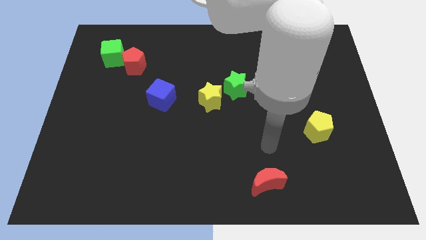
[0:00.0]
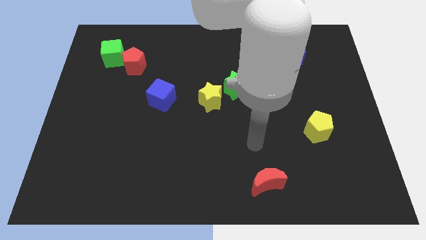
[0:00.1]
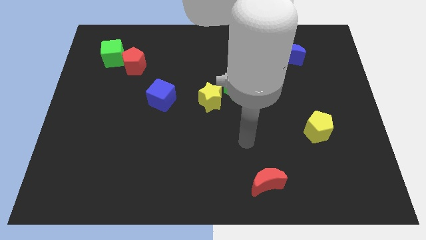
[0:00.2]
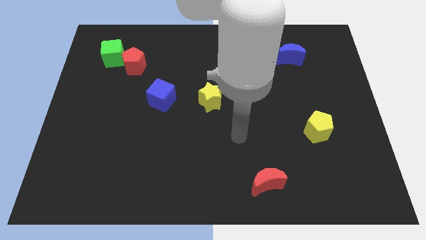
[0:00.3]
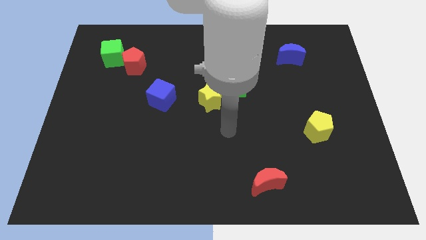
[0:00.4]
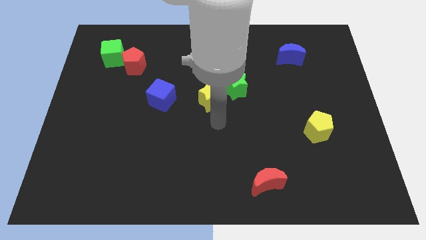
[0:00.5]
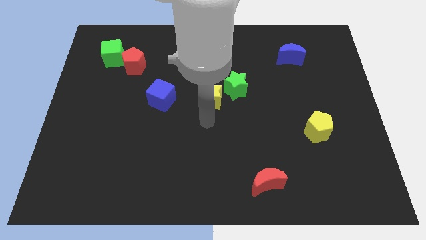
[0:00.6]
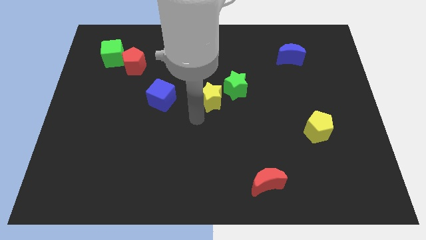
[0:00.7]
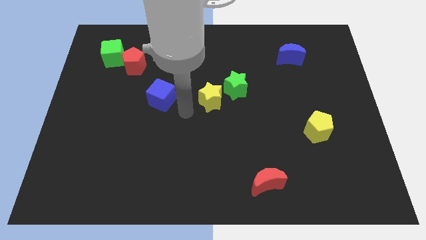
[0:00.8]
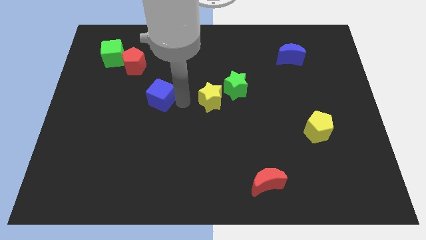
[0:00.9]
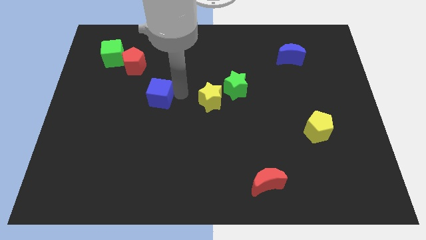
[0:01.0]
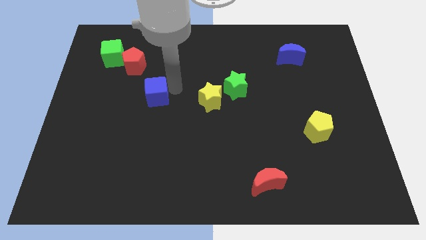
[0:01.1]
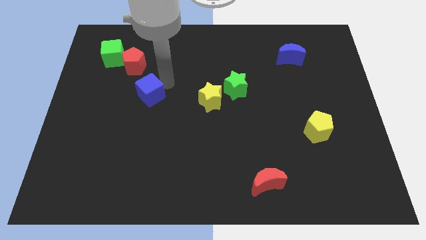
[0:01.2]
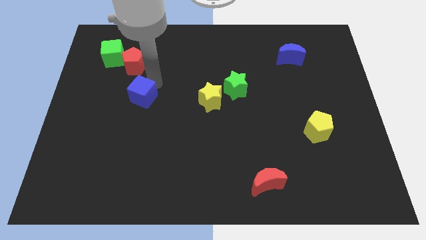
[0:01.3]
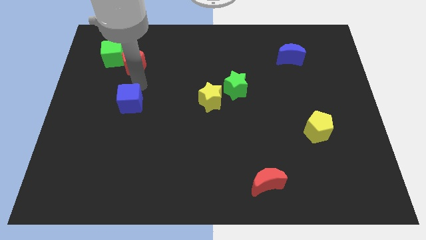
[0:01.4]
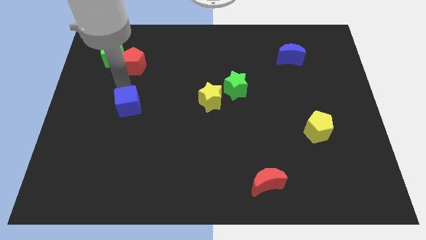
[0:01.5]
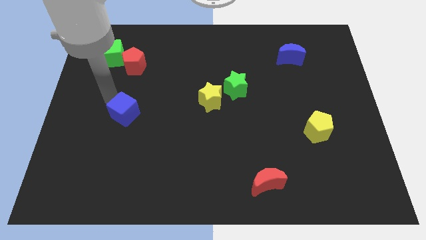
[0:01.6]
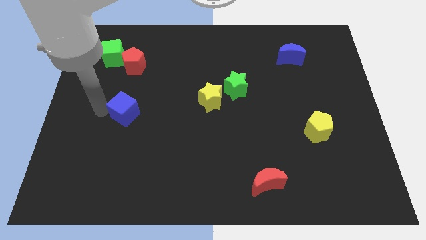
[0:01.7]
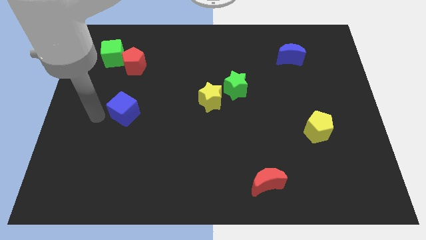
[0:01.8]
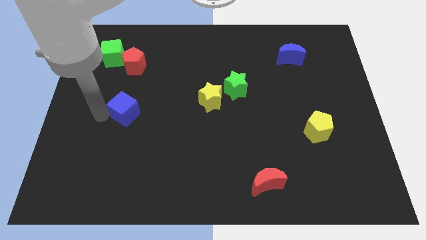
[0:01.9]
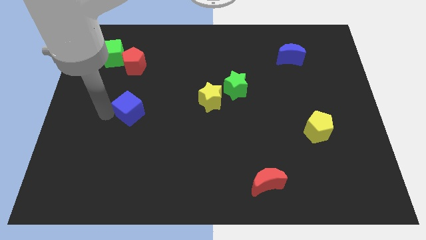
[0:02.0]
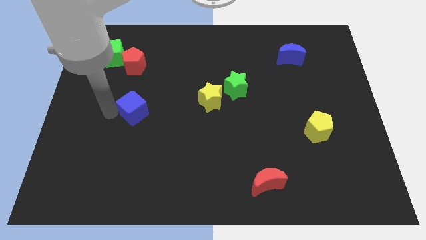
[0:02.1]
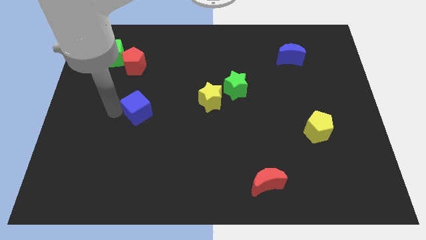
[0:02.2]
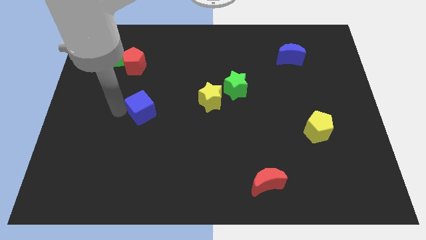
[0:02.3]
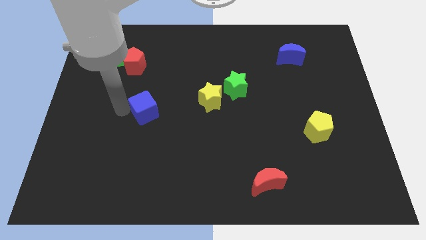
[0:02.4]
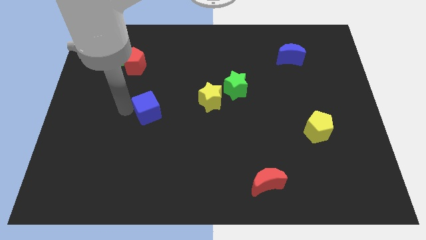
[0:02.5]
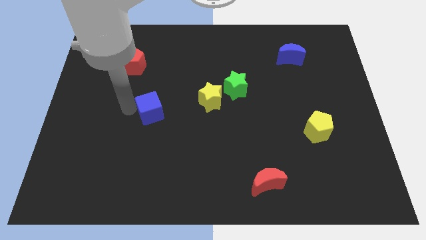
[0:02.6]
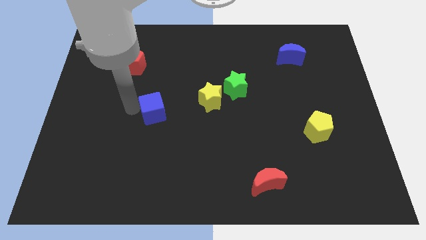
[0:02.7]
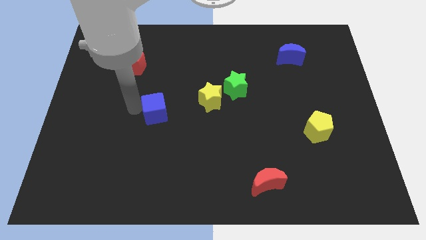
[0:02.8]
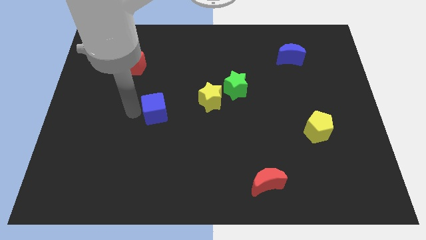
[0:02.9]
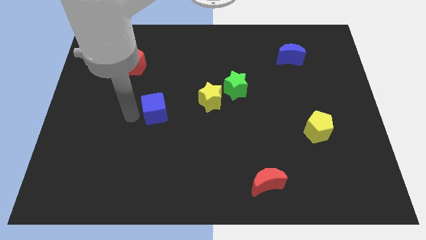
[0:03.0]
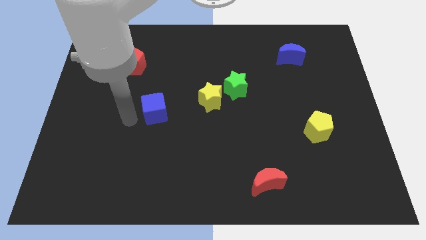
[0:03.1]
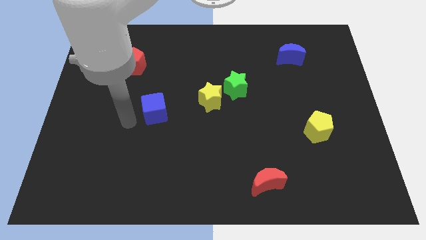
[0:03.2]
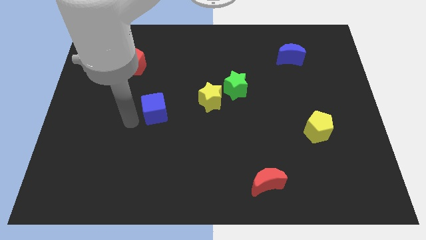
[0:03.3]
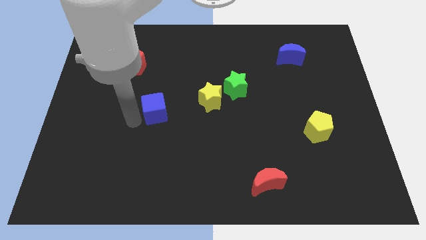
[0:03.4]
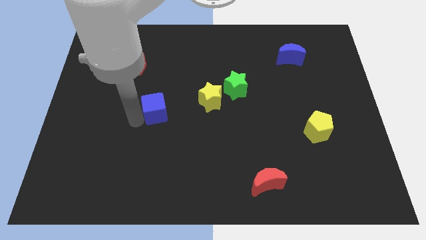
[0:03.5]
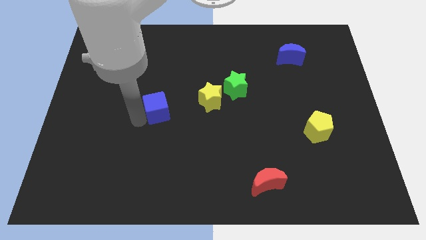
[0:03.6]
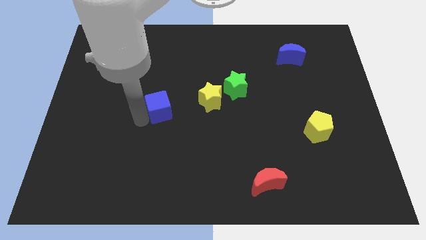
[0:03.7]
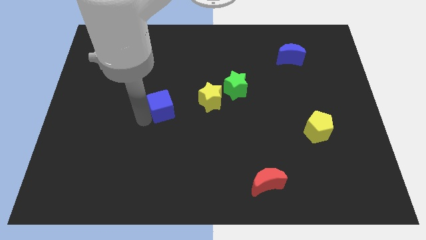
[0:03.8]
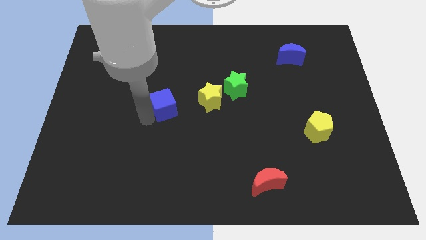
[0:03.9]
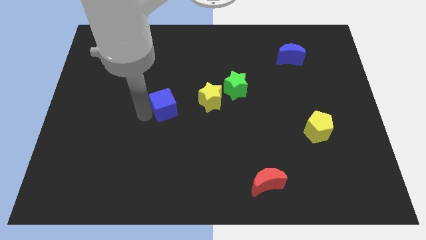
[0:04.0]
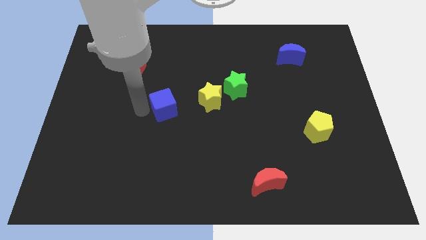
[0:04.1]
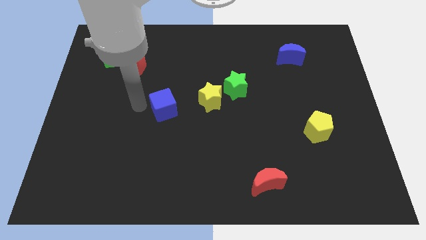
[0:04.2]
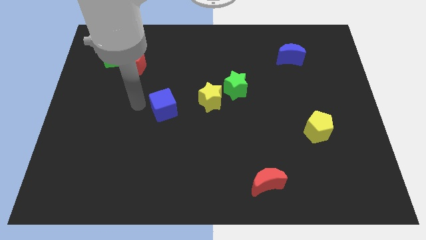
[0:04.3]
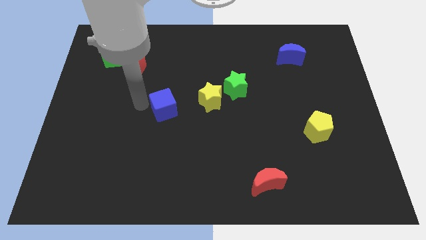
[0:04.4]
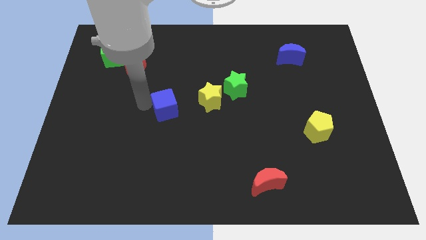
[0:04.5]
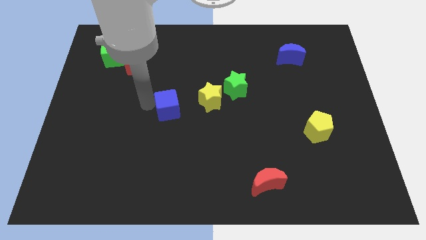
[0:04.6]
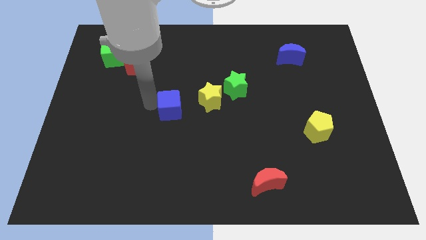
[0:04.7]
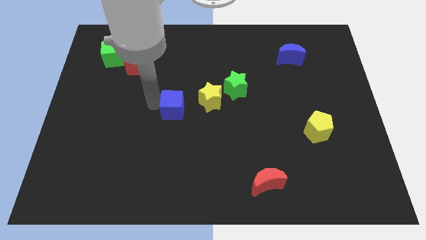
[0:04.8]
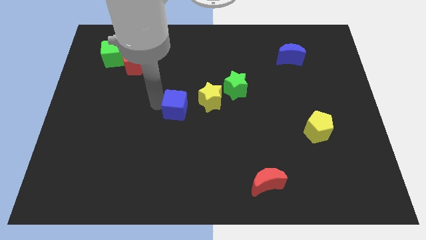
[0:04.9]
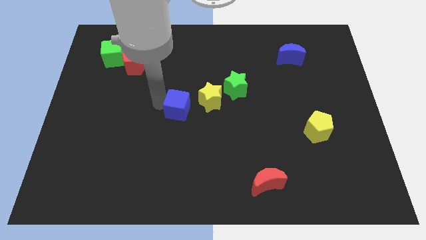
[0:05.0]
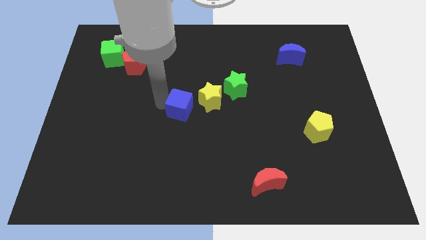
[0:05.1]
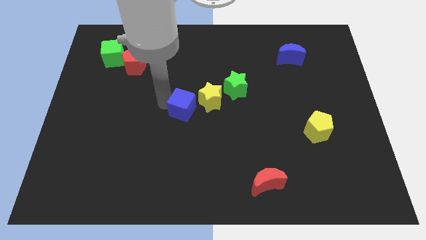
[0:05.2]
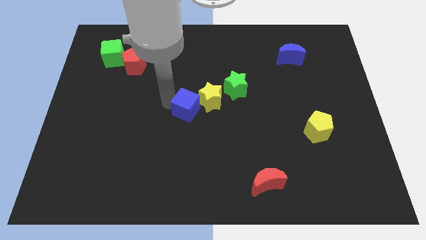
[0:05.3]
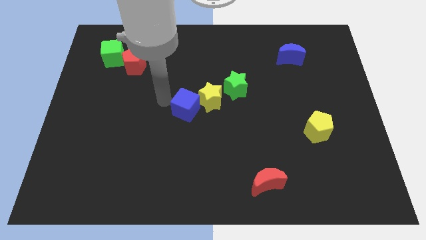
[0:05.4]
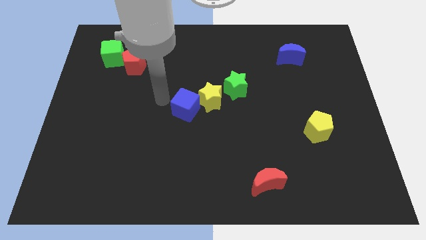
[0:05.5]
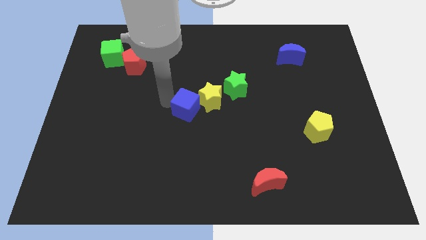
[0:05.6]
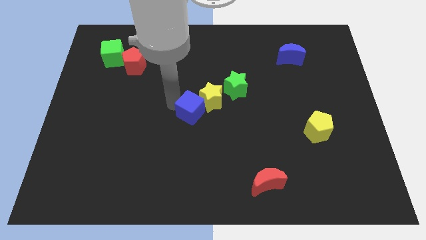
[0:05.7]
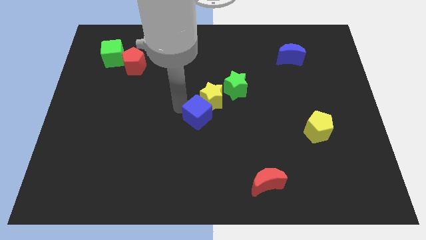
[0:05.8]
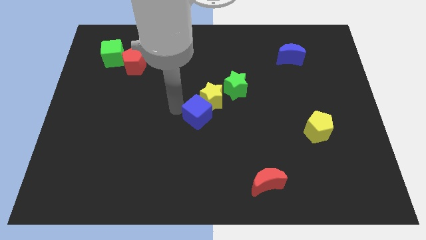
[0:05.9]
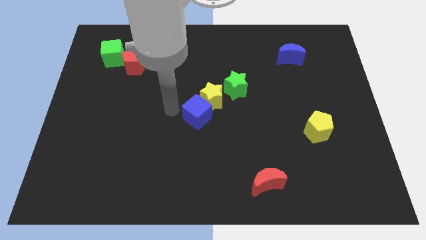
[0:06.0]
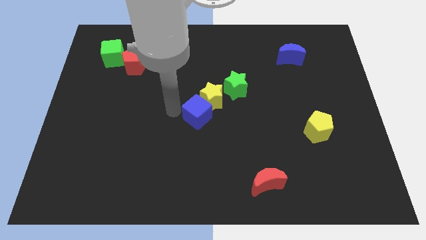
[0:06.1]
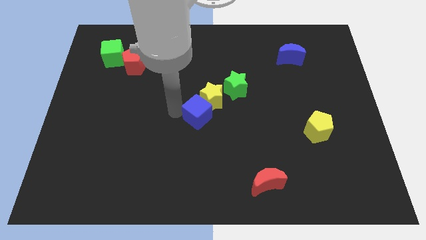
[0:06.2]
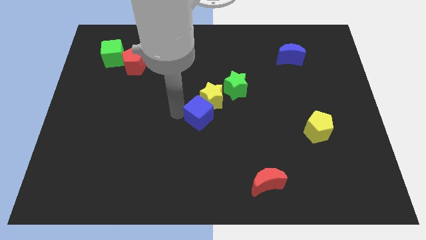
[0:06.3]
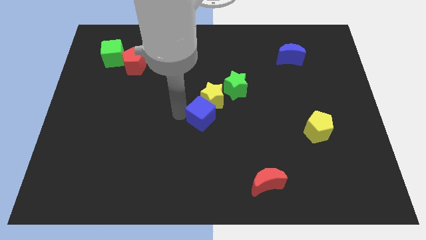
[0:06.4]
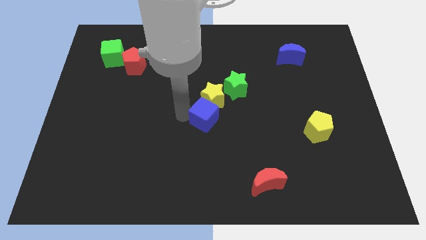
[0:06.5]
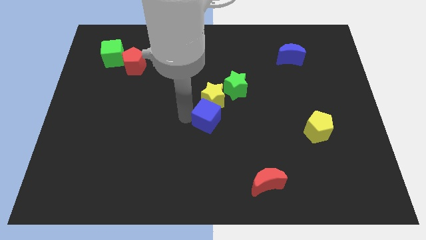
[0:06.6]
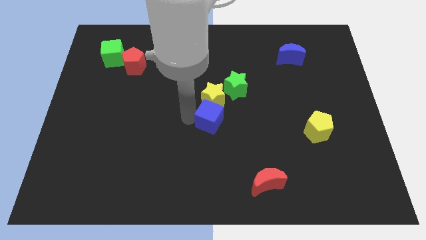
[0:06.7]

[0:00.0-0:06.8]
slide the blue cube to the bottom right side of the yellow star
